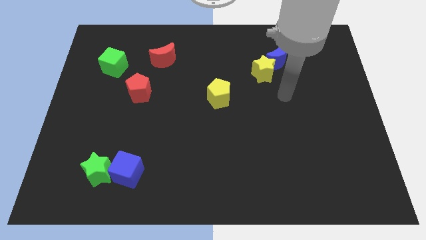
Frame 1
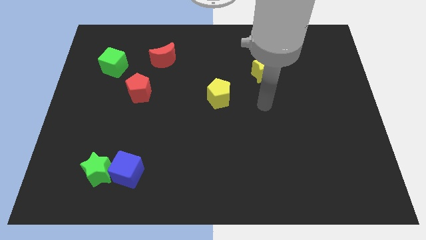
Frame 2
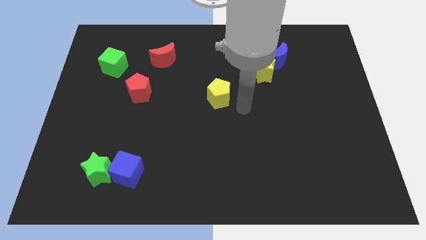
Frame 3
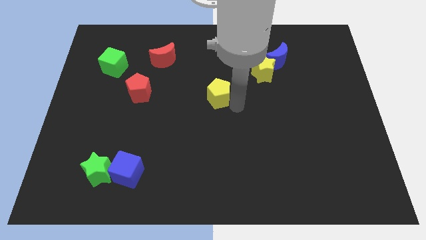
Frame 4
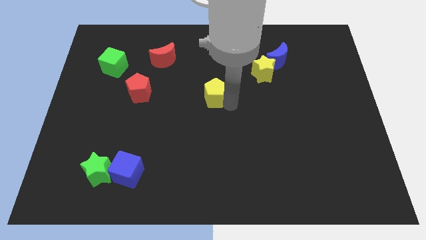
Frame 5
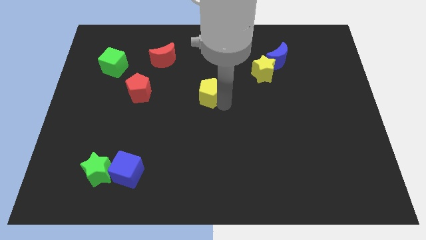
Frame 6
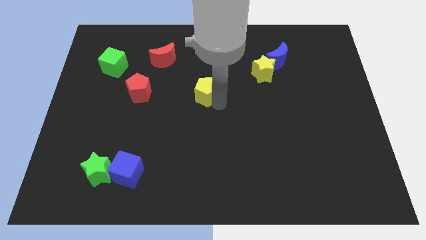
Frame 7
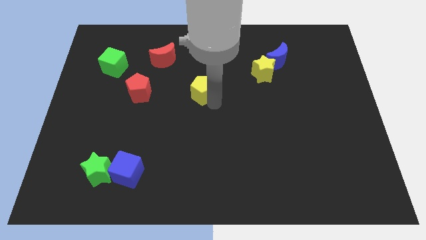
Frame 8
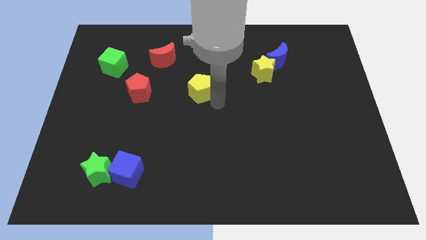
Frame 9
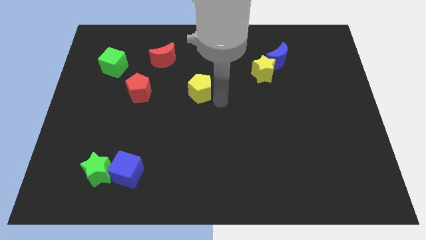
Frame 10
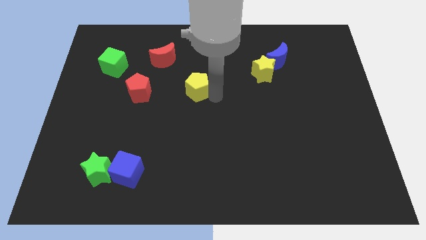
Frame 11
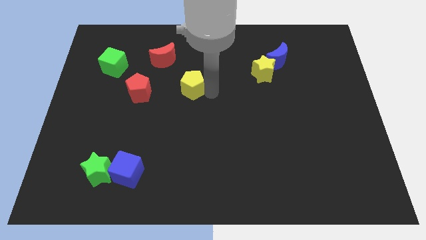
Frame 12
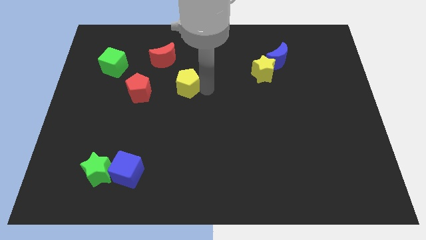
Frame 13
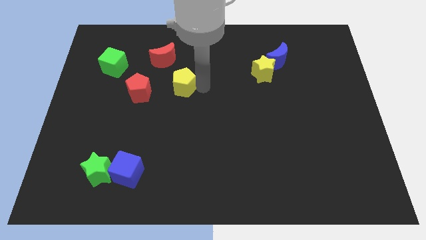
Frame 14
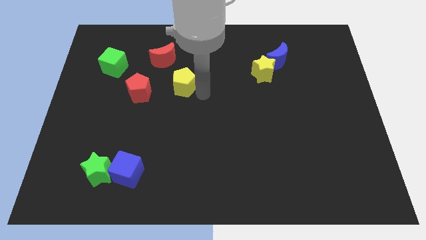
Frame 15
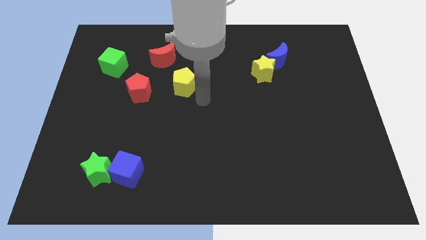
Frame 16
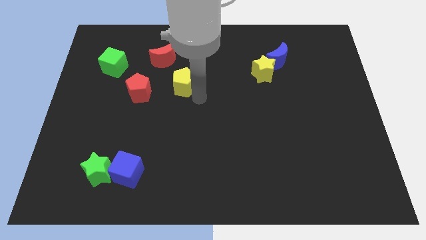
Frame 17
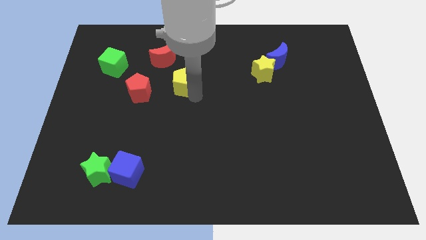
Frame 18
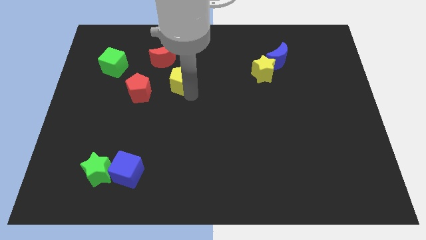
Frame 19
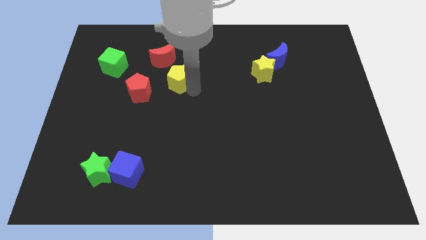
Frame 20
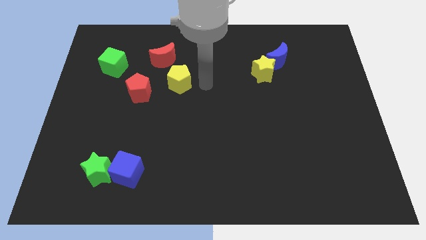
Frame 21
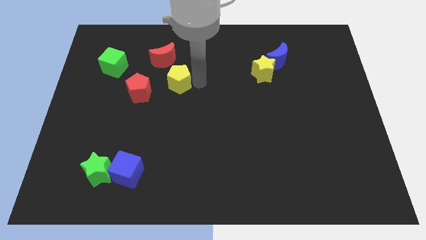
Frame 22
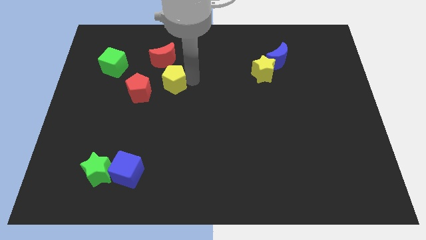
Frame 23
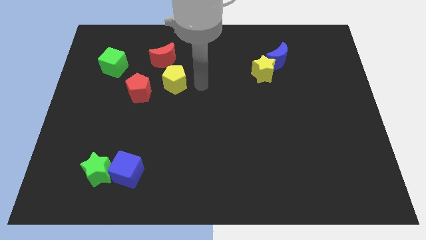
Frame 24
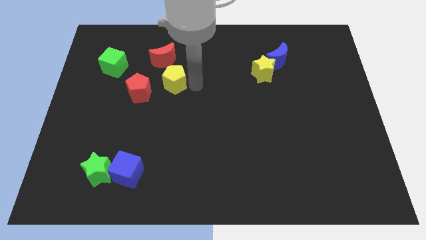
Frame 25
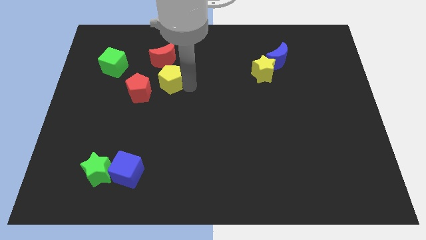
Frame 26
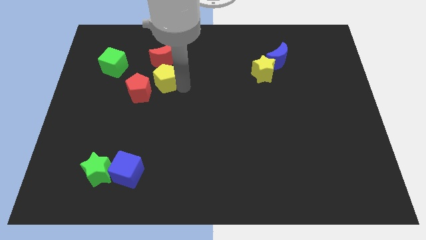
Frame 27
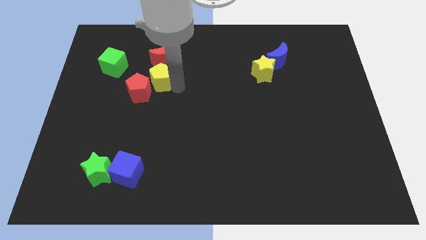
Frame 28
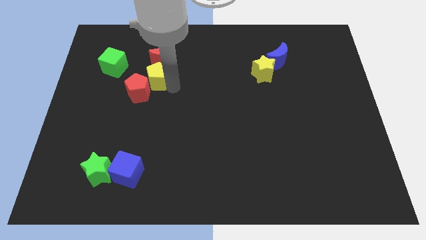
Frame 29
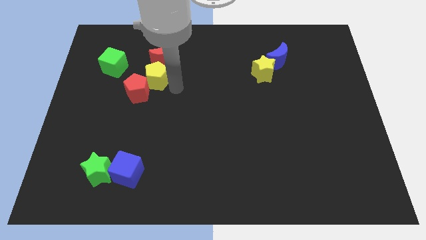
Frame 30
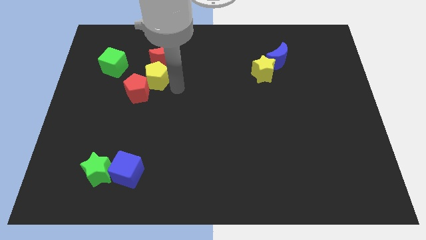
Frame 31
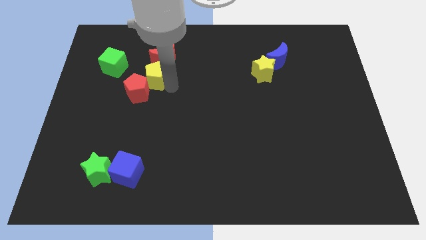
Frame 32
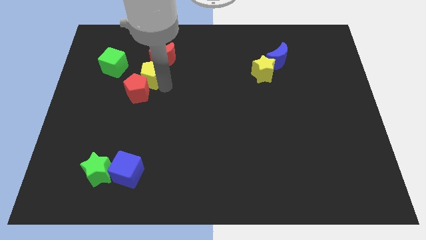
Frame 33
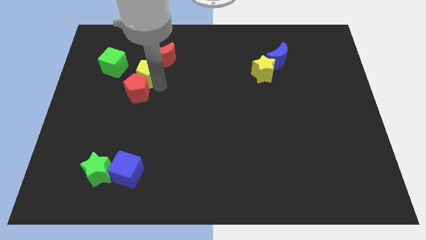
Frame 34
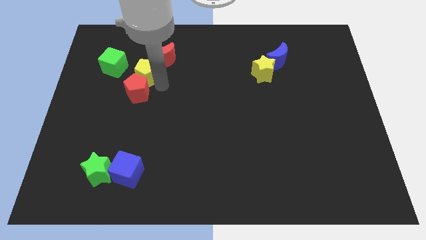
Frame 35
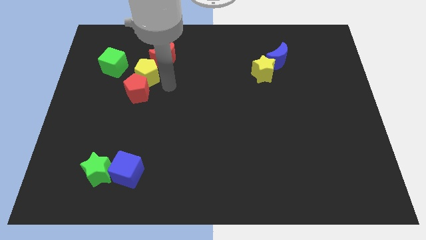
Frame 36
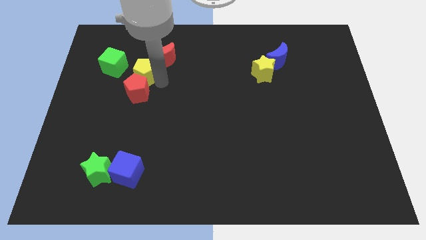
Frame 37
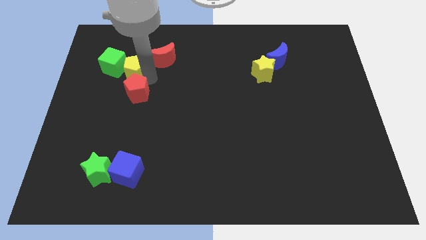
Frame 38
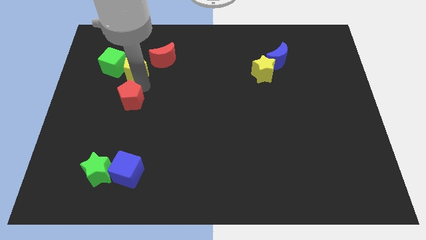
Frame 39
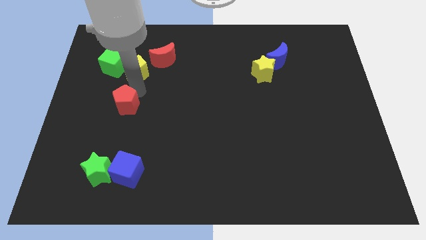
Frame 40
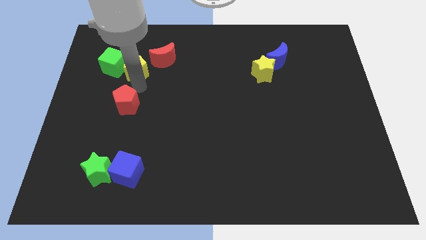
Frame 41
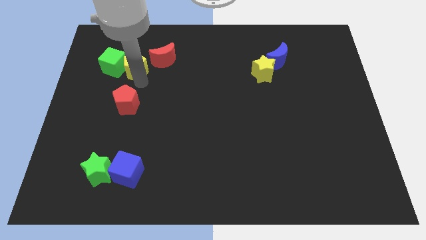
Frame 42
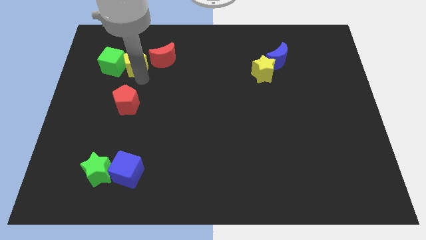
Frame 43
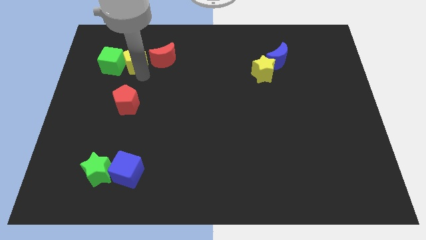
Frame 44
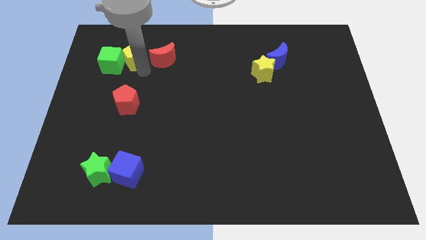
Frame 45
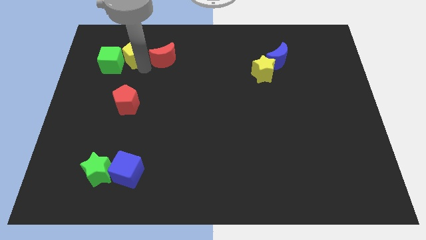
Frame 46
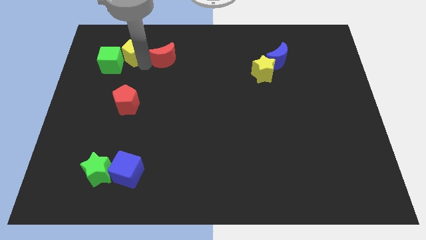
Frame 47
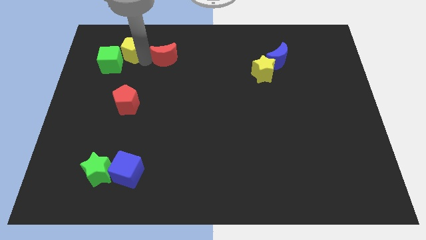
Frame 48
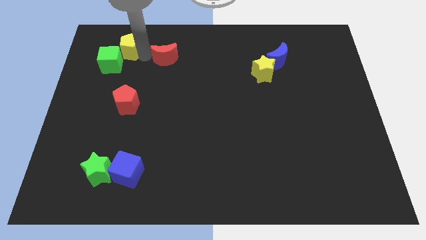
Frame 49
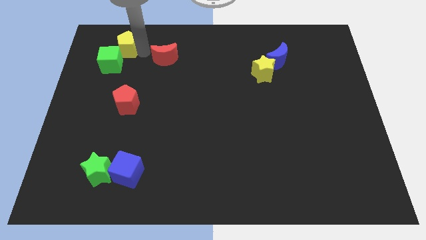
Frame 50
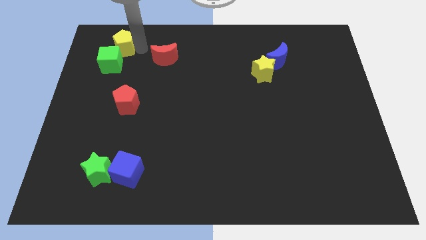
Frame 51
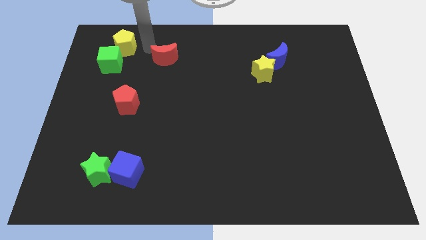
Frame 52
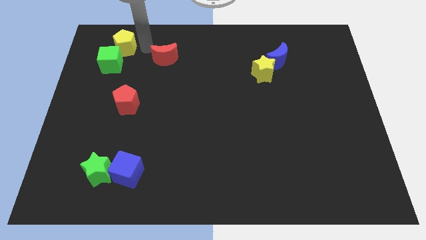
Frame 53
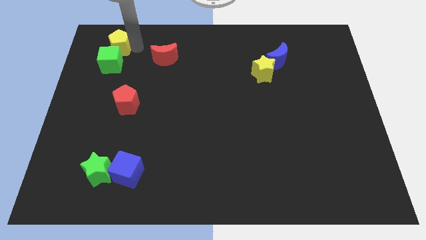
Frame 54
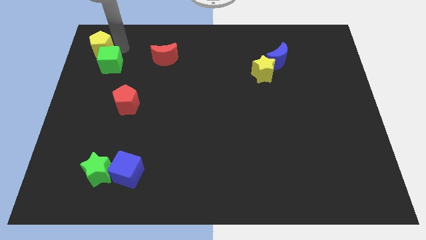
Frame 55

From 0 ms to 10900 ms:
slide the yellow pentagon to the top left of the board

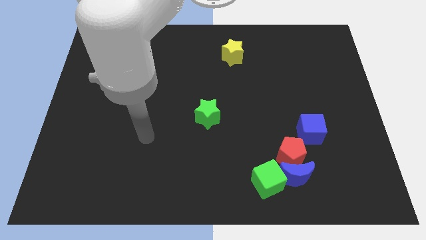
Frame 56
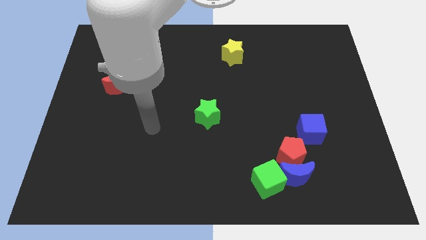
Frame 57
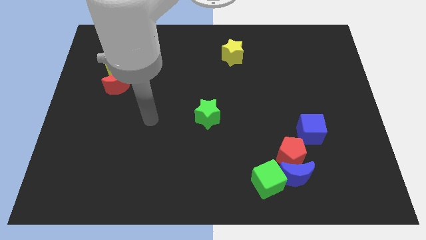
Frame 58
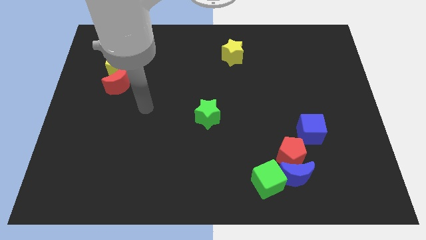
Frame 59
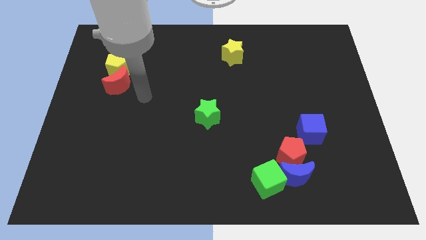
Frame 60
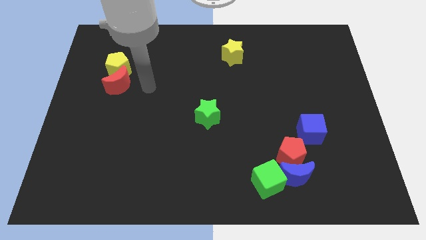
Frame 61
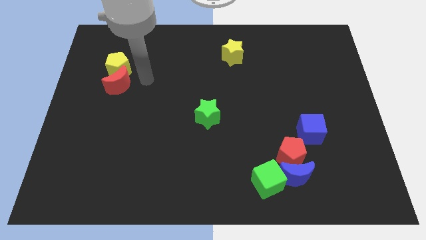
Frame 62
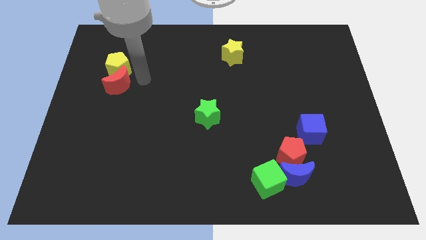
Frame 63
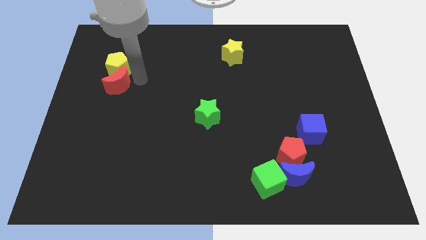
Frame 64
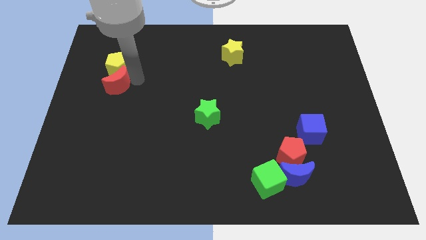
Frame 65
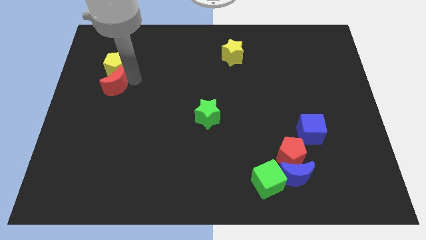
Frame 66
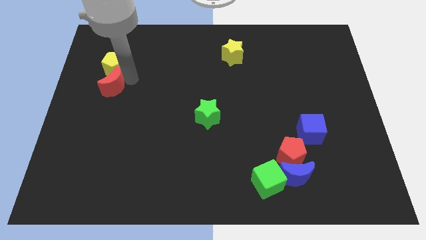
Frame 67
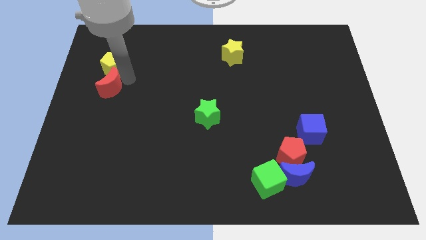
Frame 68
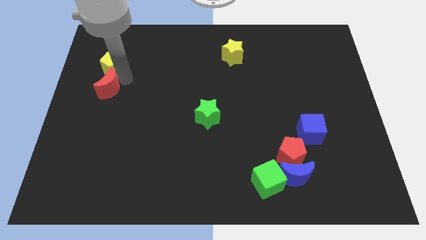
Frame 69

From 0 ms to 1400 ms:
push the red moon to the left side
